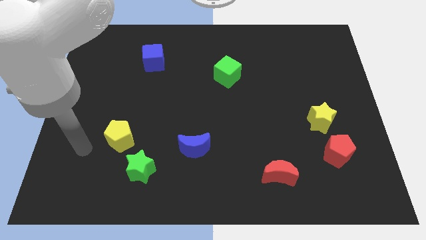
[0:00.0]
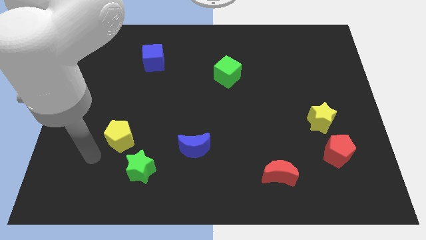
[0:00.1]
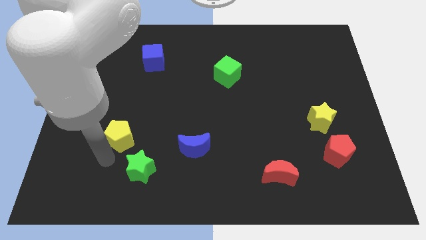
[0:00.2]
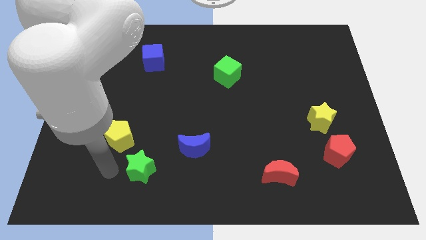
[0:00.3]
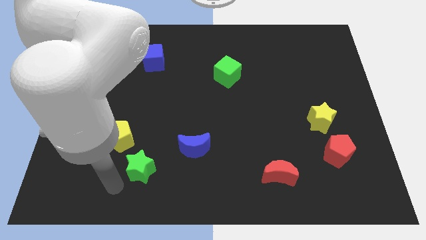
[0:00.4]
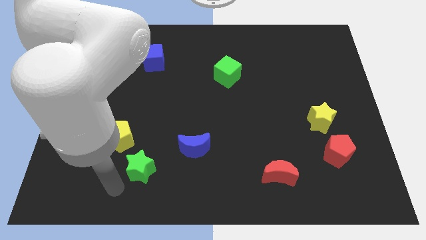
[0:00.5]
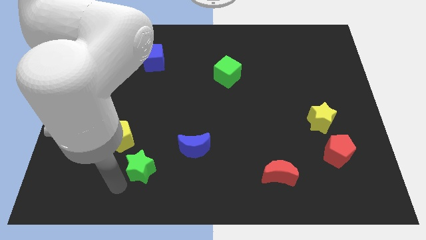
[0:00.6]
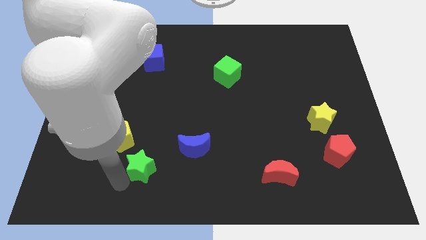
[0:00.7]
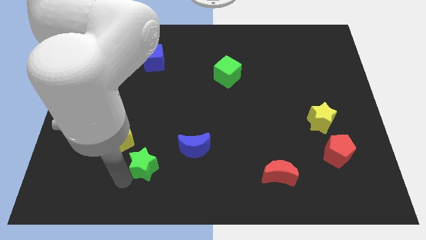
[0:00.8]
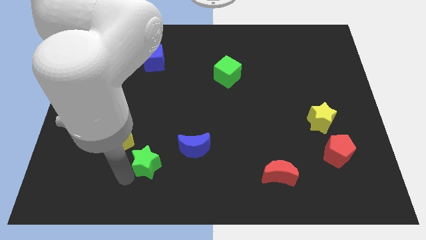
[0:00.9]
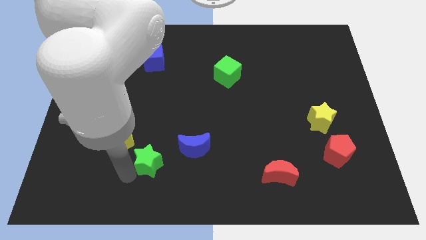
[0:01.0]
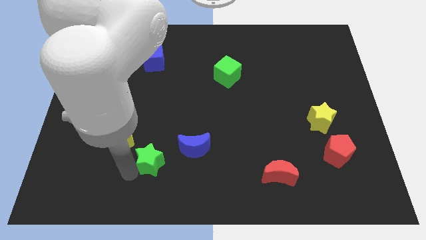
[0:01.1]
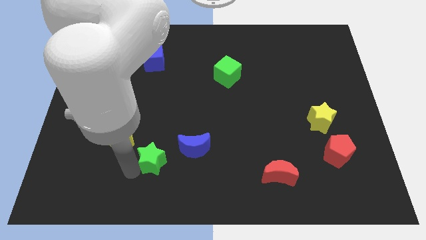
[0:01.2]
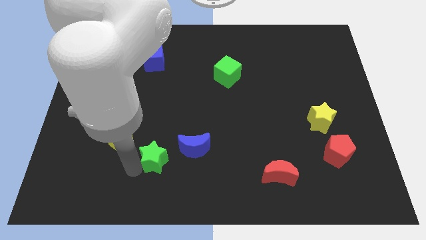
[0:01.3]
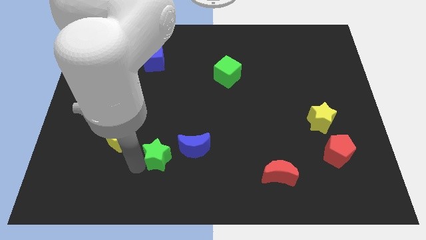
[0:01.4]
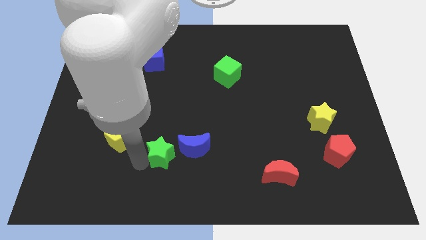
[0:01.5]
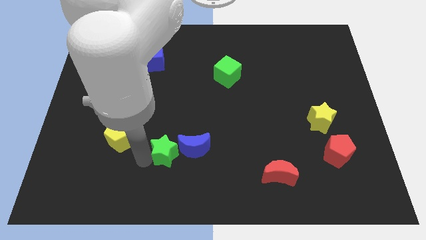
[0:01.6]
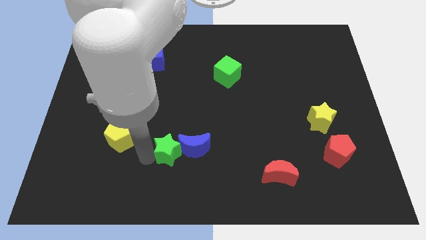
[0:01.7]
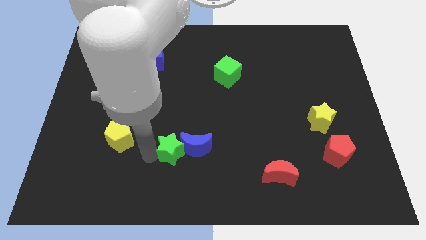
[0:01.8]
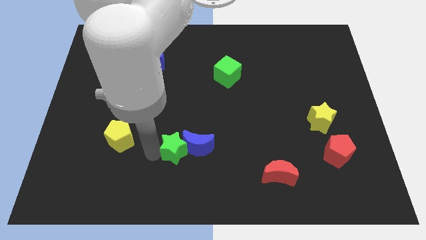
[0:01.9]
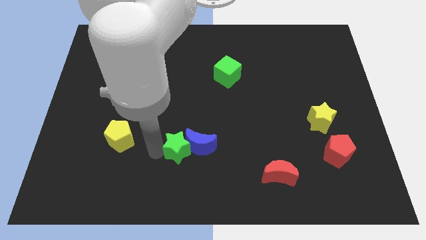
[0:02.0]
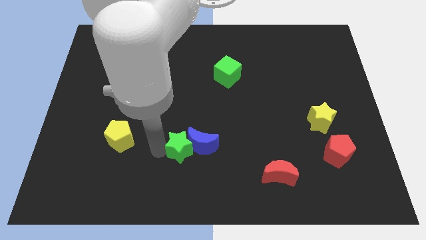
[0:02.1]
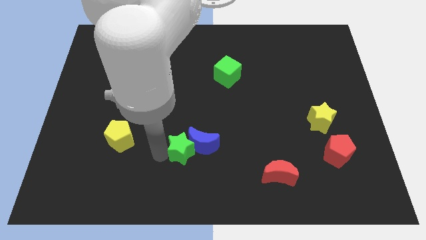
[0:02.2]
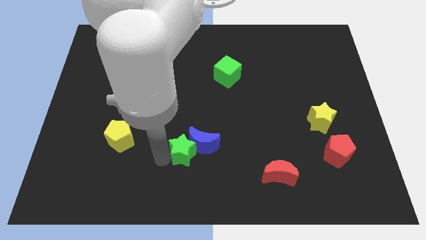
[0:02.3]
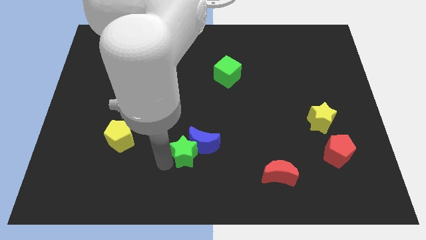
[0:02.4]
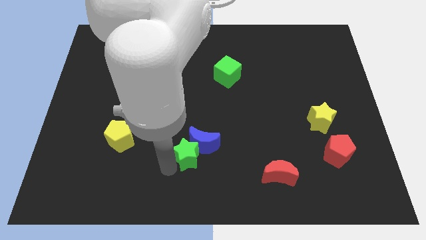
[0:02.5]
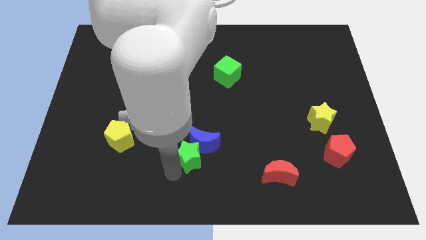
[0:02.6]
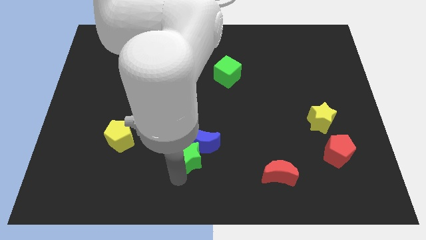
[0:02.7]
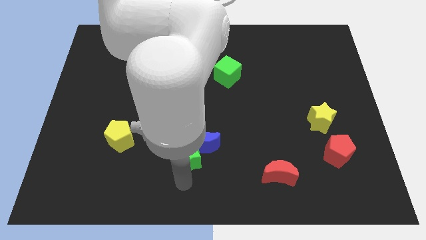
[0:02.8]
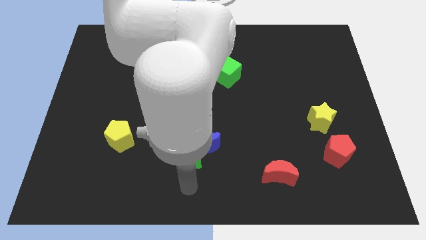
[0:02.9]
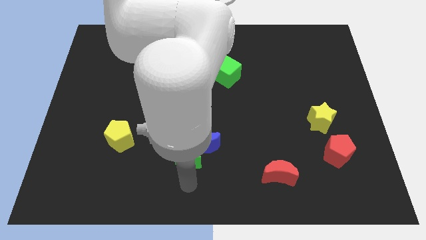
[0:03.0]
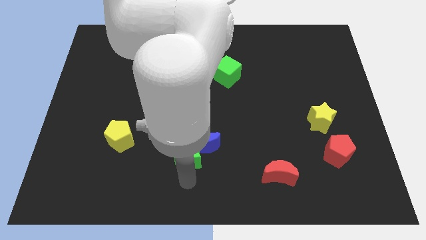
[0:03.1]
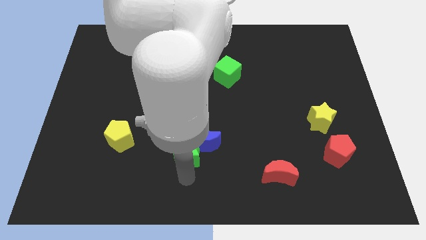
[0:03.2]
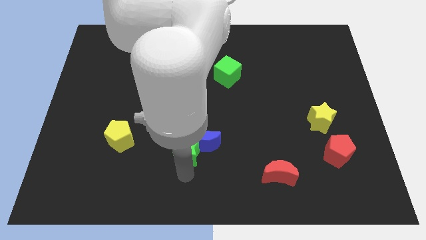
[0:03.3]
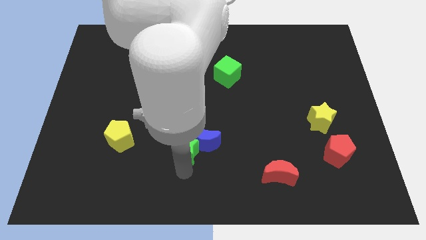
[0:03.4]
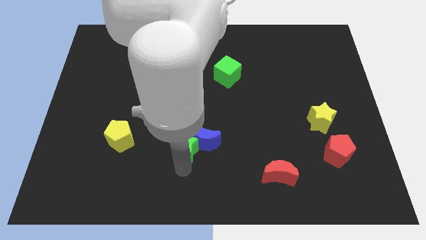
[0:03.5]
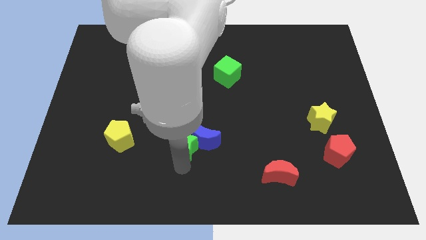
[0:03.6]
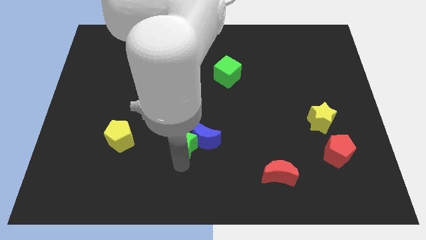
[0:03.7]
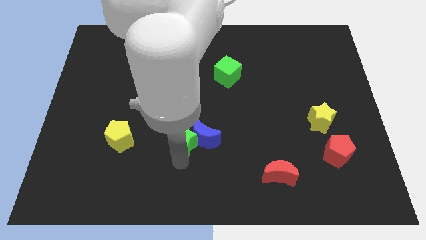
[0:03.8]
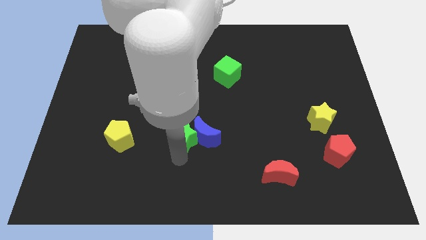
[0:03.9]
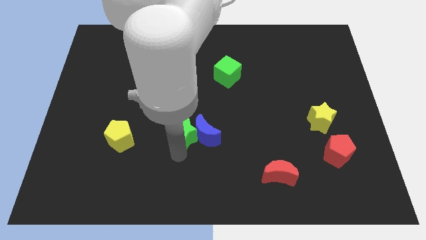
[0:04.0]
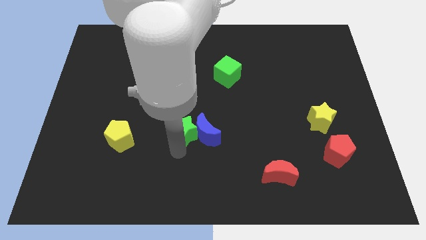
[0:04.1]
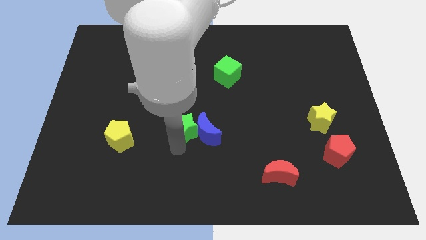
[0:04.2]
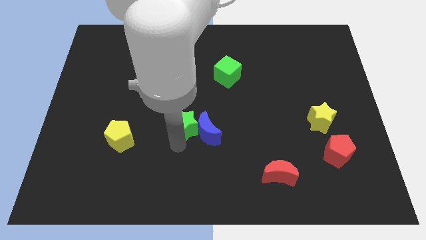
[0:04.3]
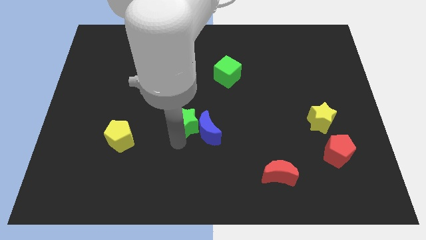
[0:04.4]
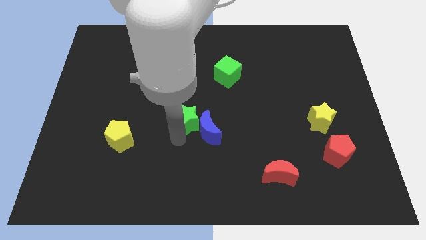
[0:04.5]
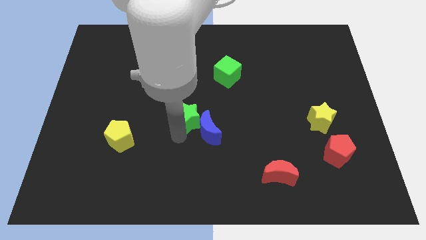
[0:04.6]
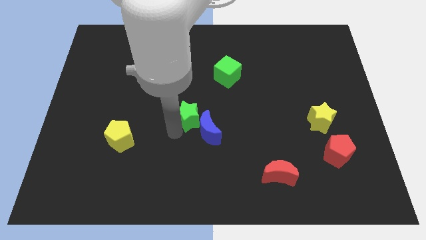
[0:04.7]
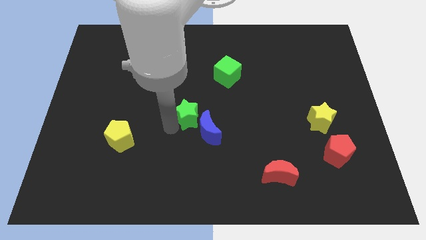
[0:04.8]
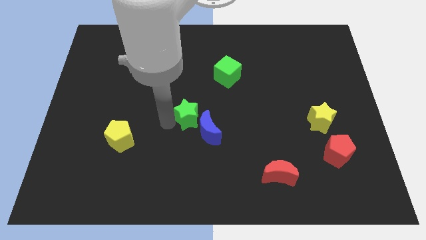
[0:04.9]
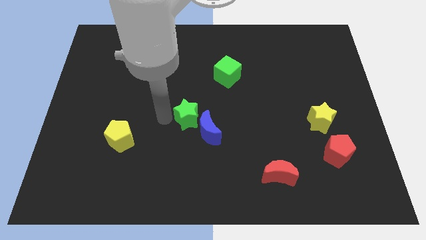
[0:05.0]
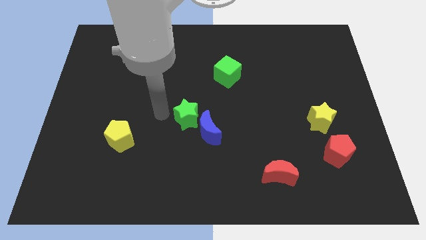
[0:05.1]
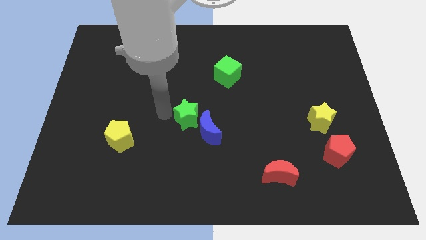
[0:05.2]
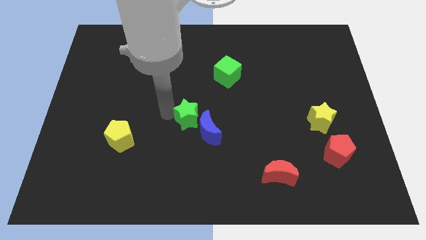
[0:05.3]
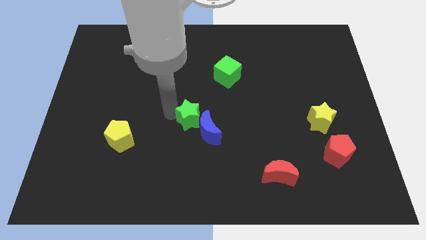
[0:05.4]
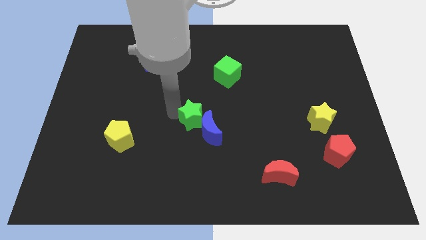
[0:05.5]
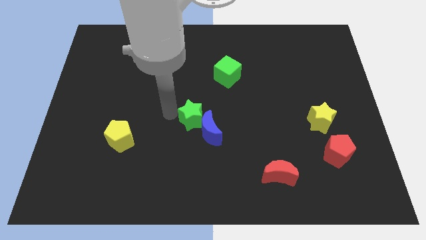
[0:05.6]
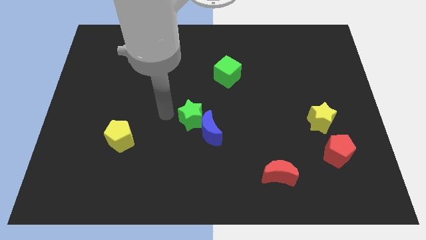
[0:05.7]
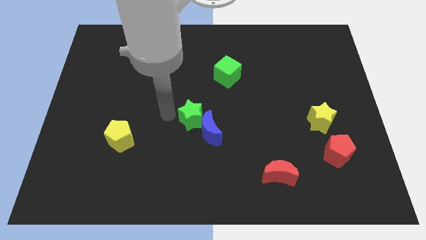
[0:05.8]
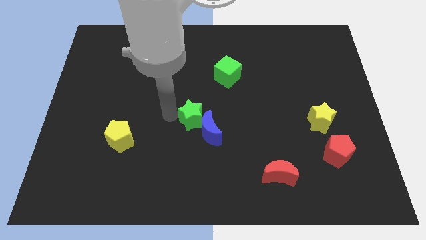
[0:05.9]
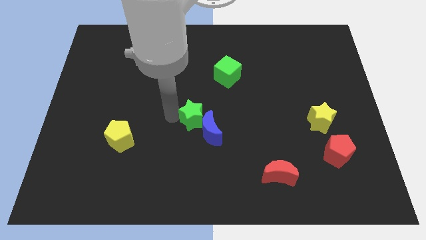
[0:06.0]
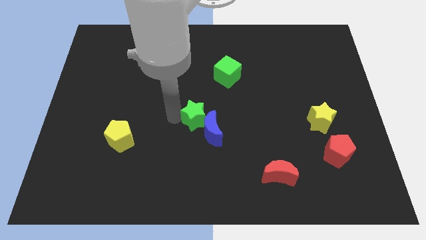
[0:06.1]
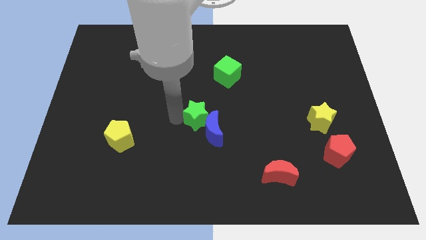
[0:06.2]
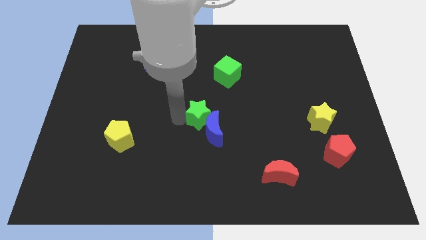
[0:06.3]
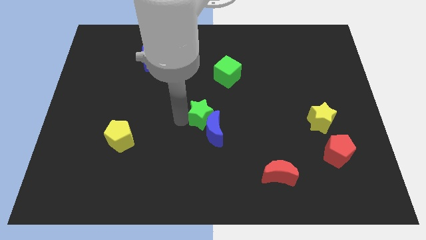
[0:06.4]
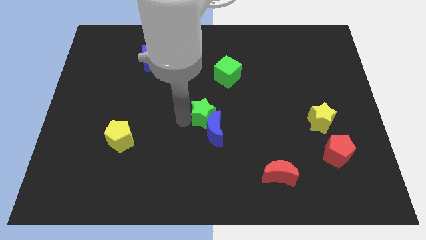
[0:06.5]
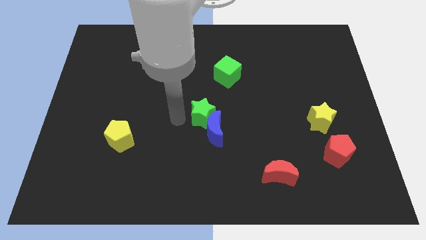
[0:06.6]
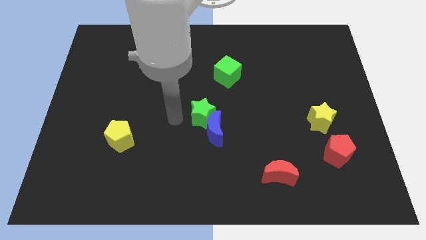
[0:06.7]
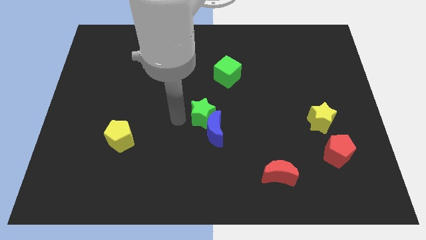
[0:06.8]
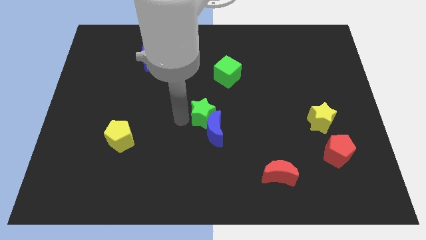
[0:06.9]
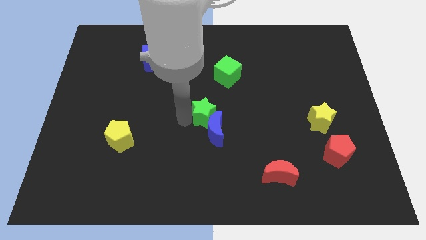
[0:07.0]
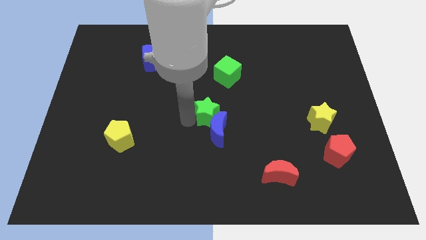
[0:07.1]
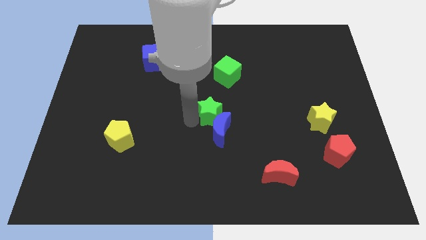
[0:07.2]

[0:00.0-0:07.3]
push the green star up and right diagonally

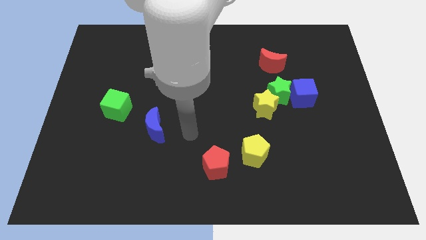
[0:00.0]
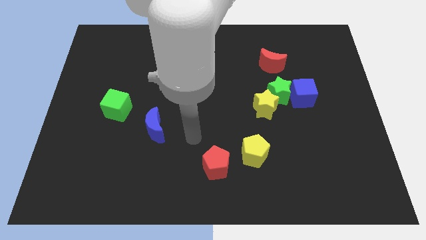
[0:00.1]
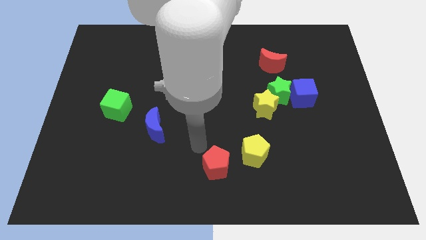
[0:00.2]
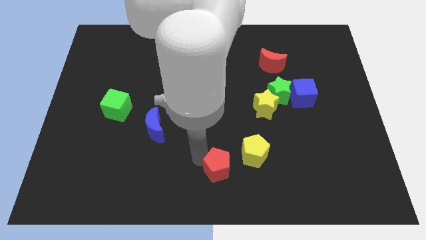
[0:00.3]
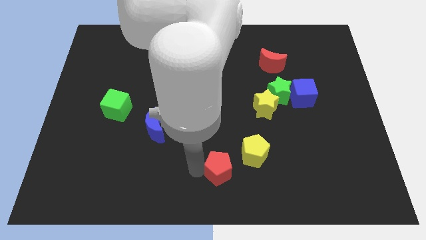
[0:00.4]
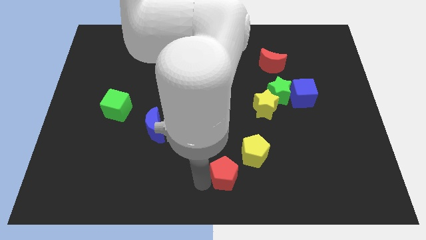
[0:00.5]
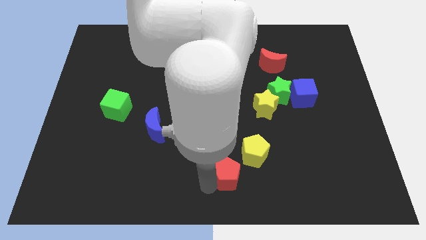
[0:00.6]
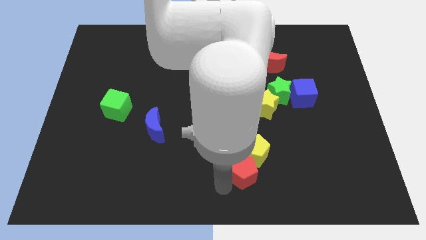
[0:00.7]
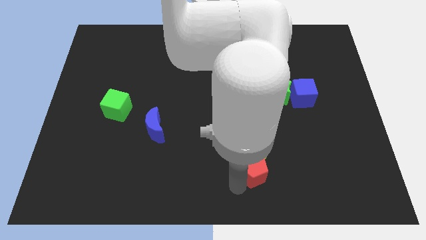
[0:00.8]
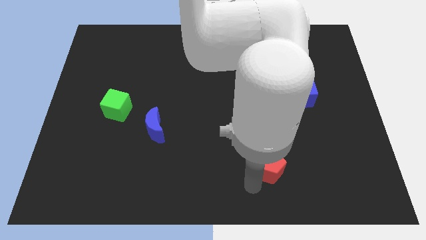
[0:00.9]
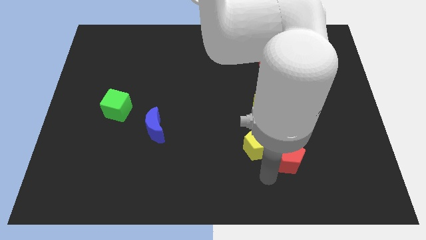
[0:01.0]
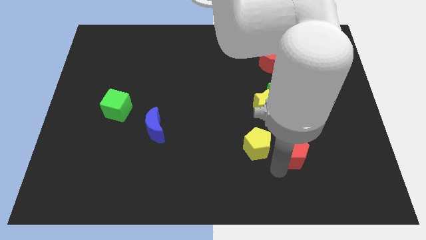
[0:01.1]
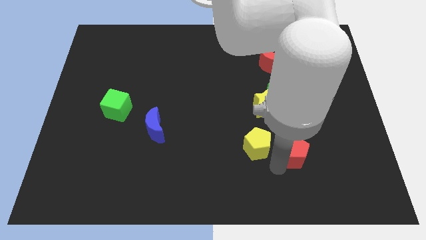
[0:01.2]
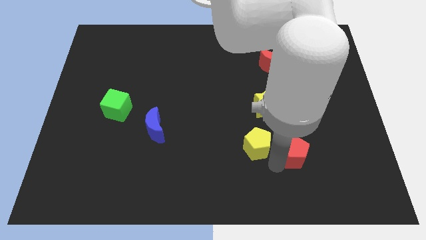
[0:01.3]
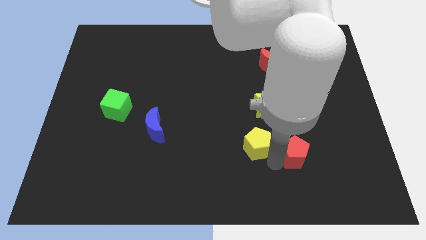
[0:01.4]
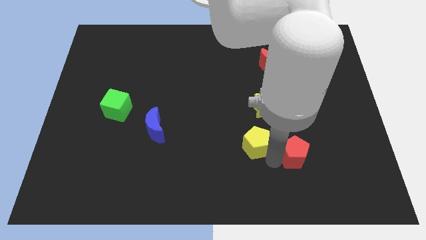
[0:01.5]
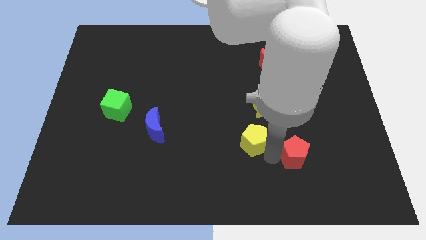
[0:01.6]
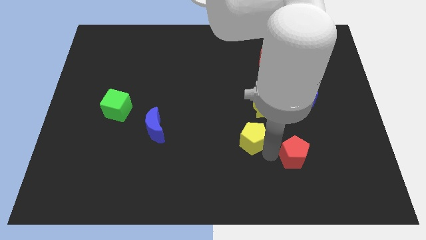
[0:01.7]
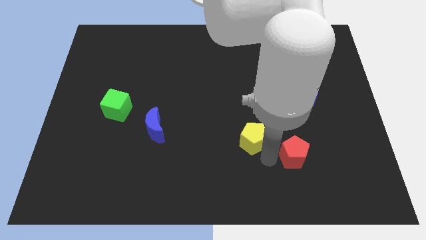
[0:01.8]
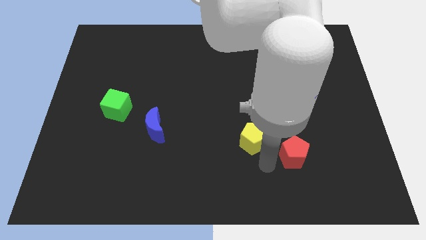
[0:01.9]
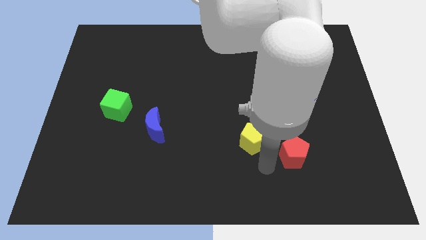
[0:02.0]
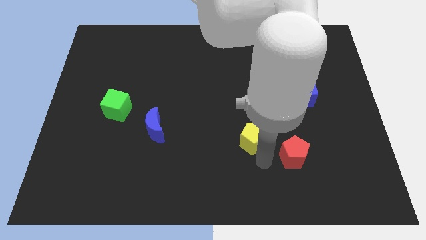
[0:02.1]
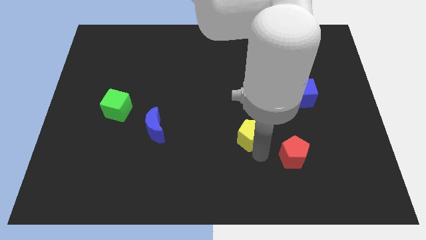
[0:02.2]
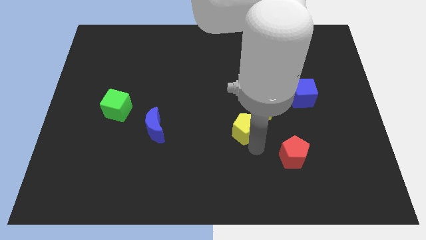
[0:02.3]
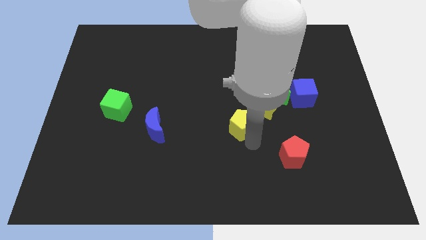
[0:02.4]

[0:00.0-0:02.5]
slide the yellow pentagon upwards a little
